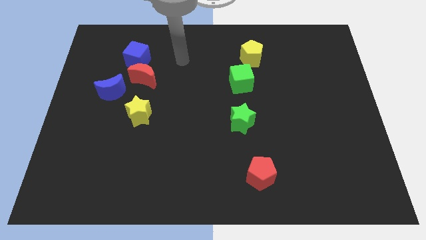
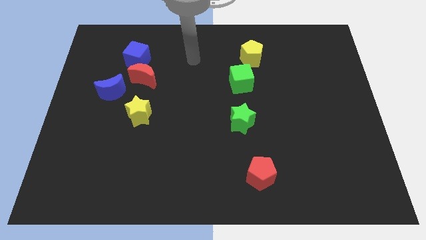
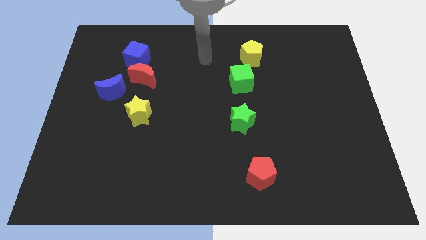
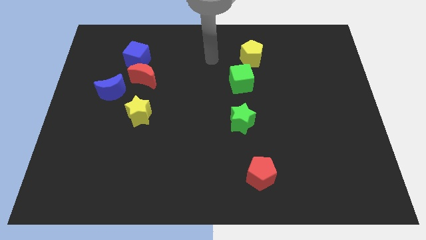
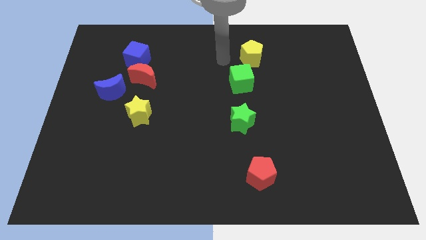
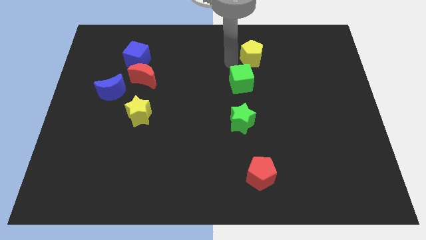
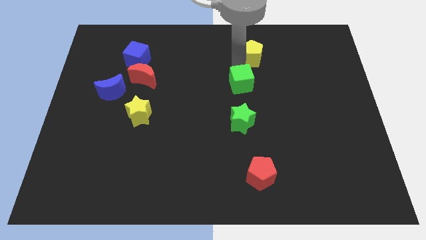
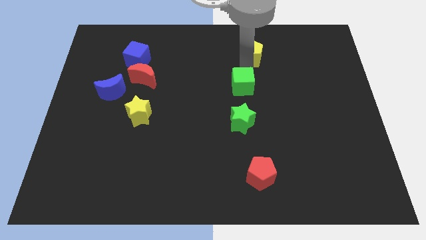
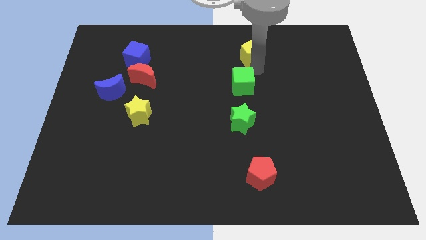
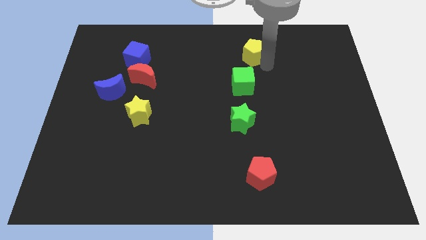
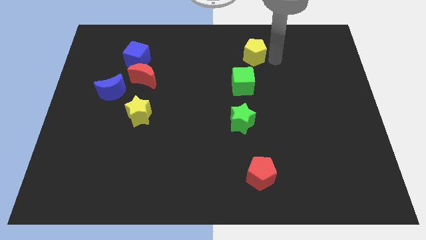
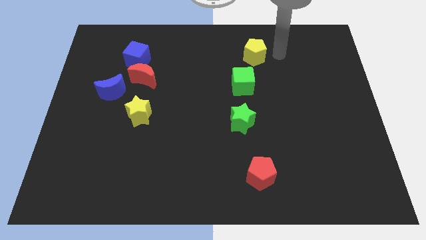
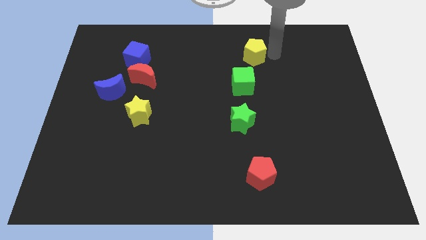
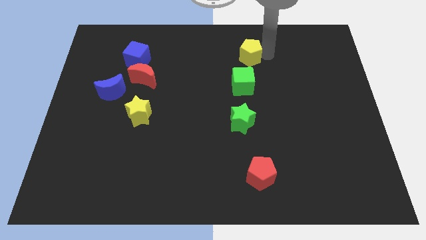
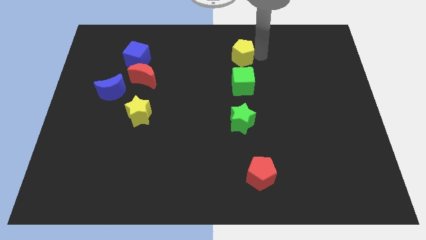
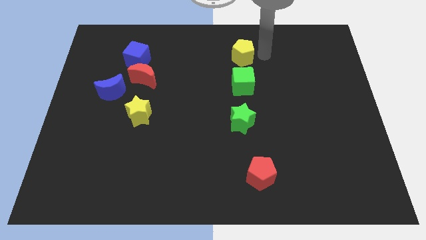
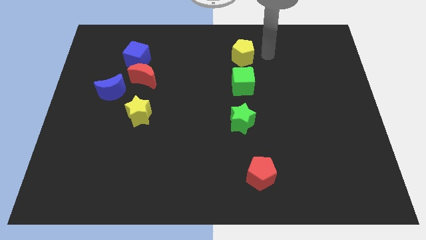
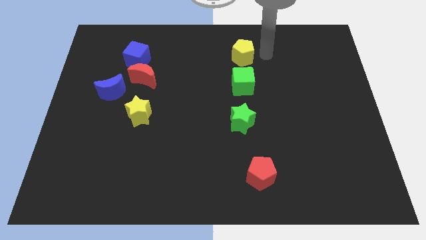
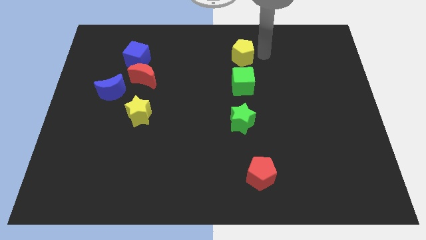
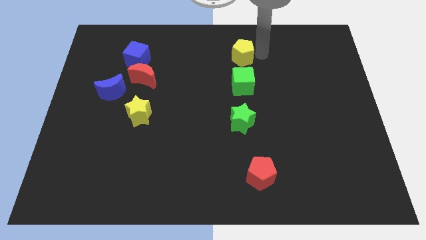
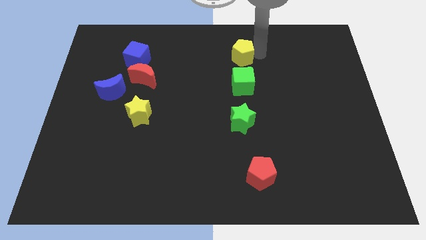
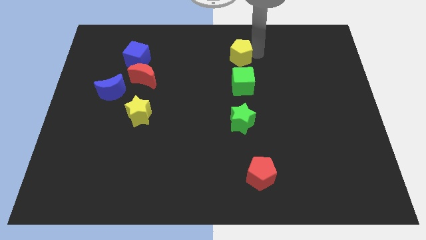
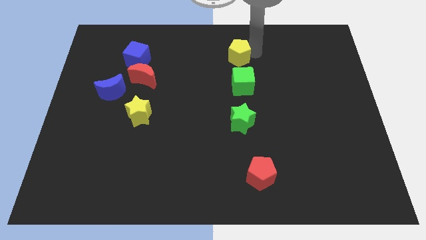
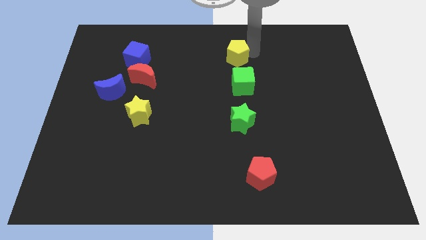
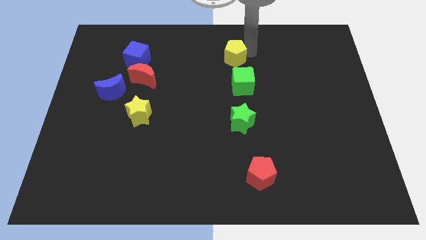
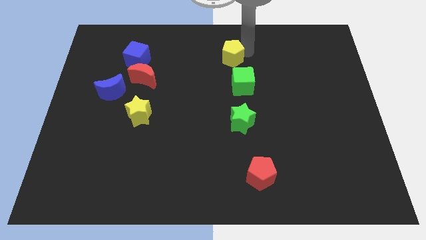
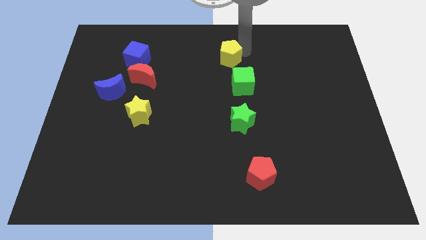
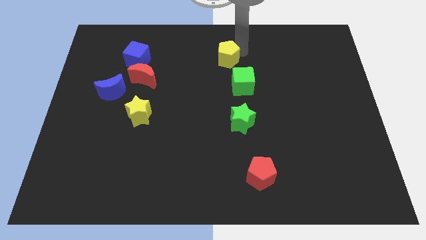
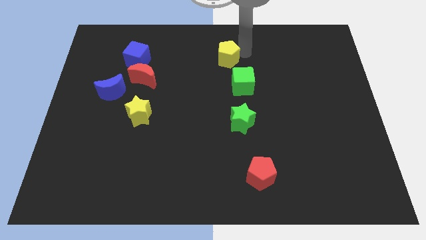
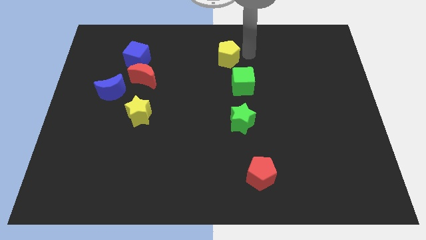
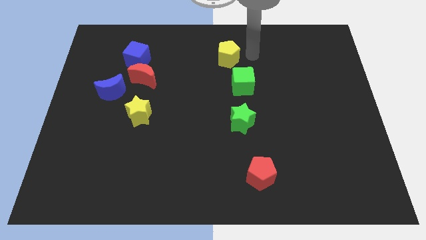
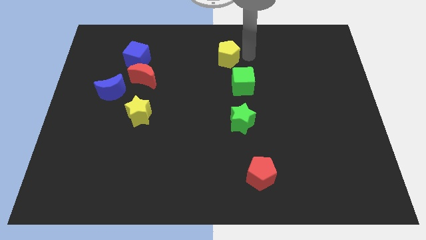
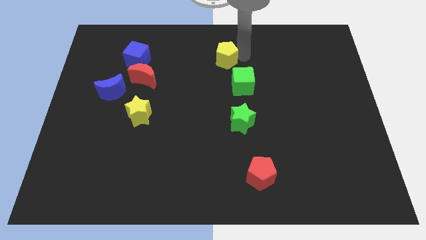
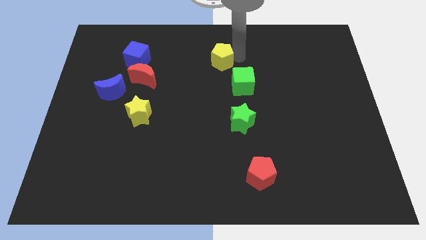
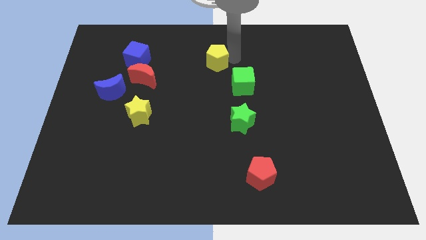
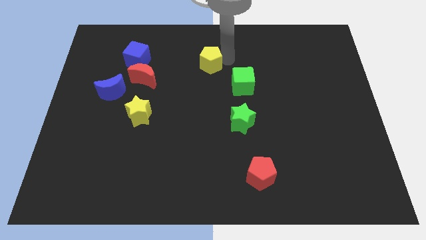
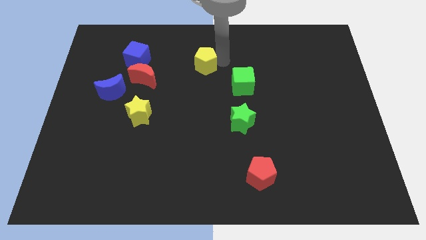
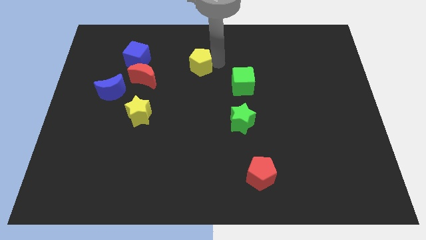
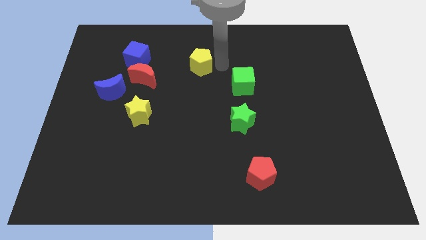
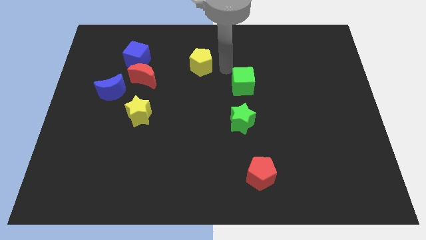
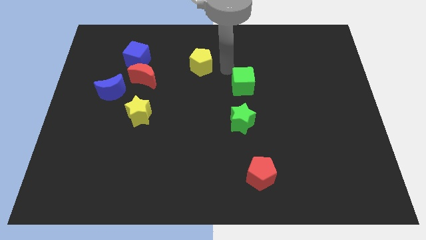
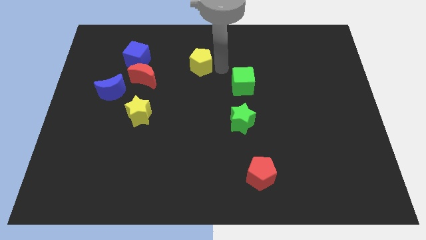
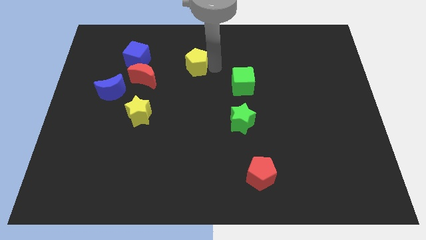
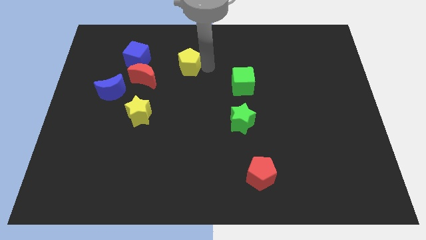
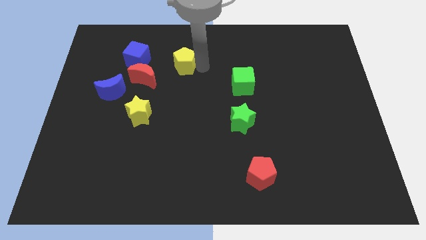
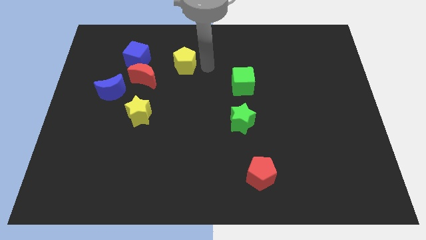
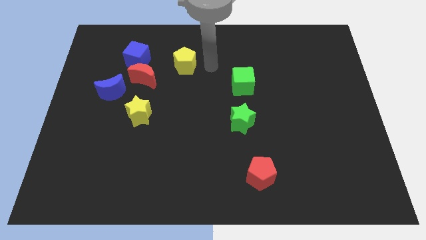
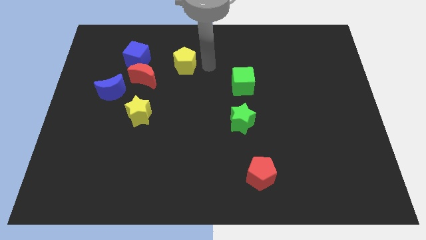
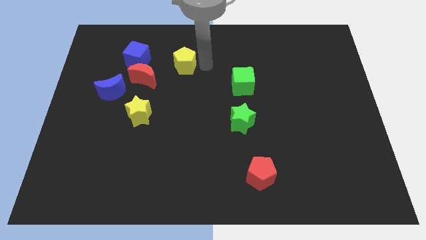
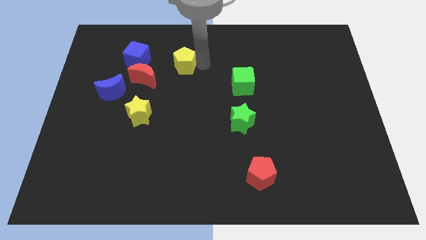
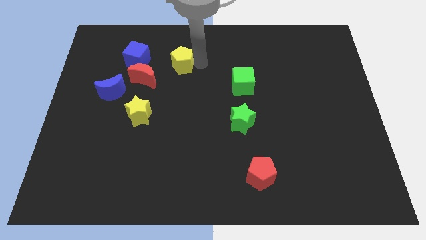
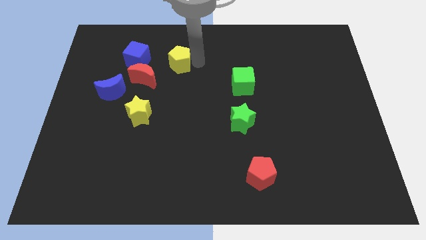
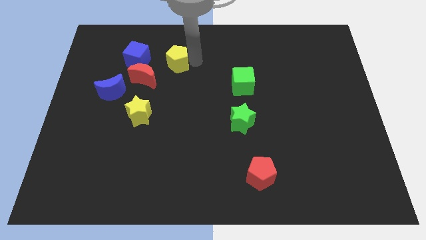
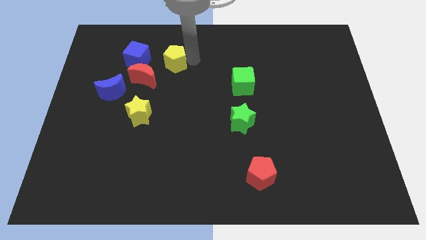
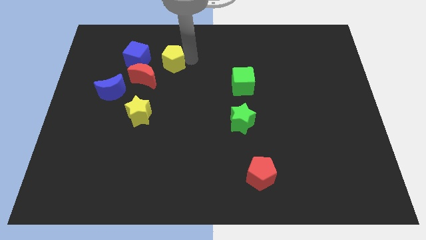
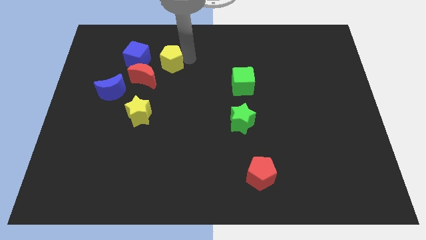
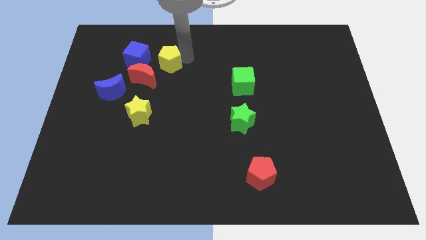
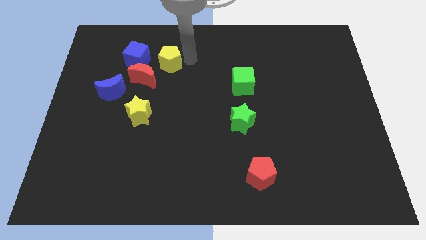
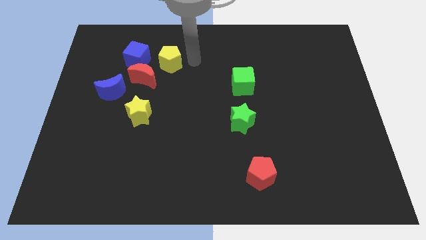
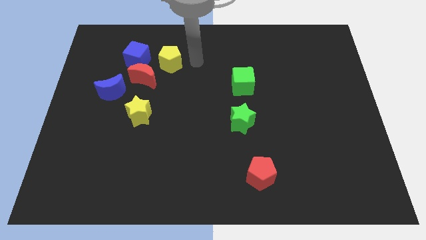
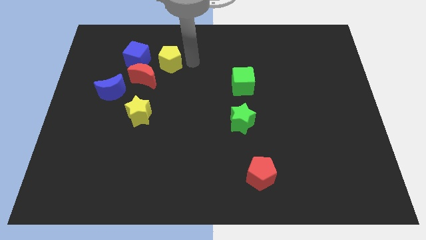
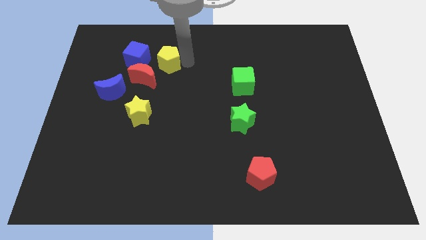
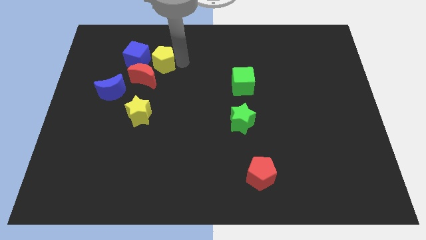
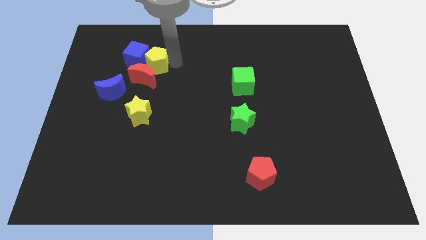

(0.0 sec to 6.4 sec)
push the yellow pentagon close to the blue cube

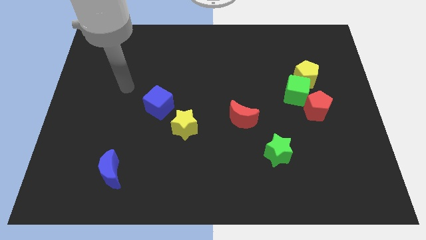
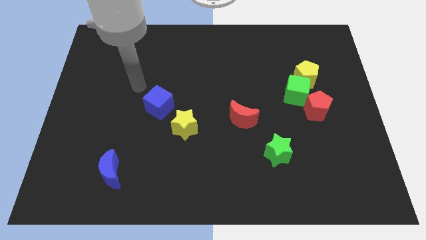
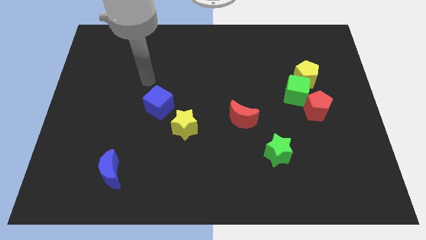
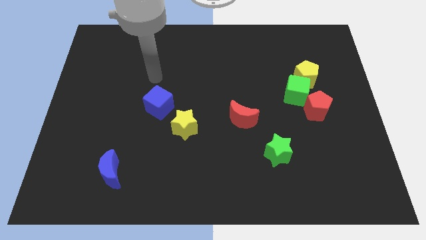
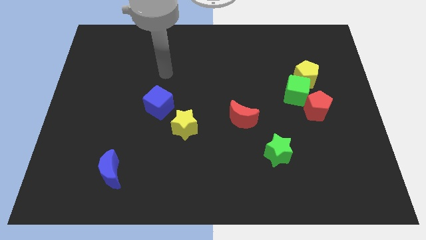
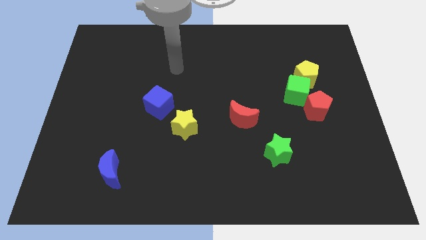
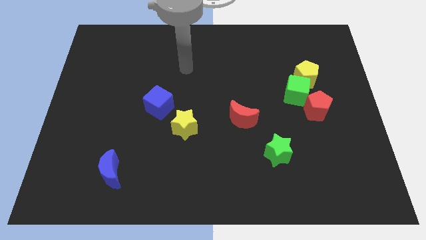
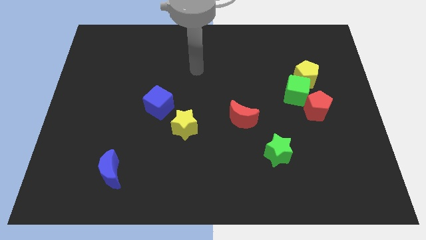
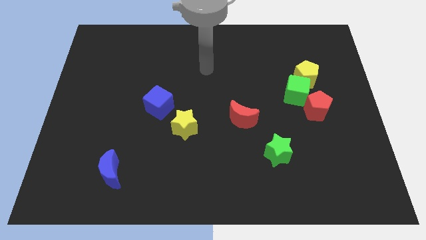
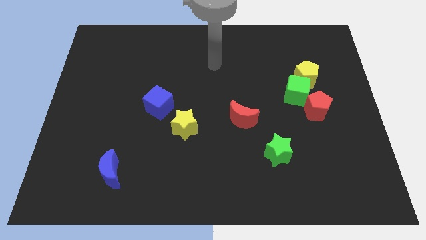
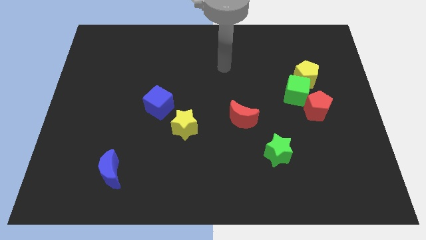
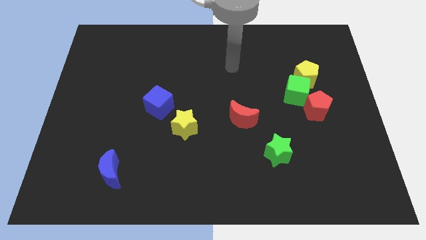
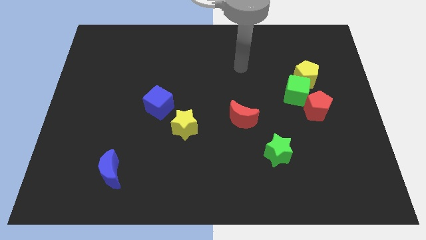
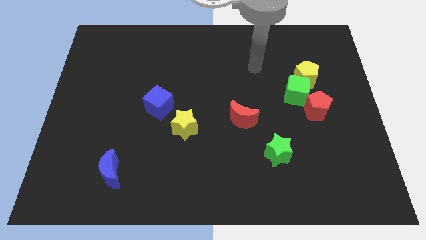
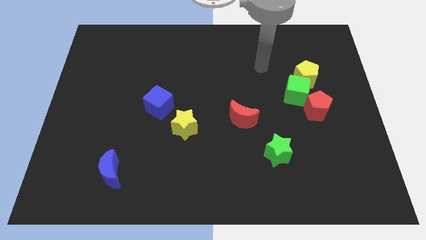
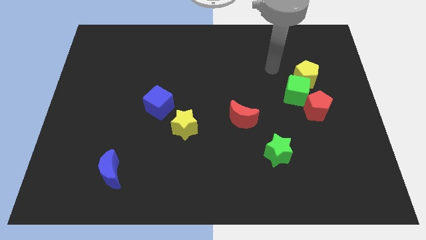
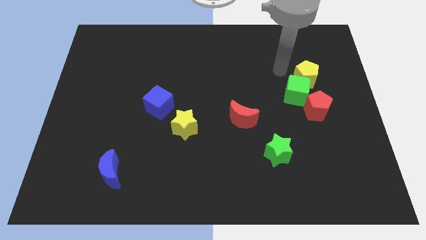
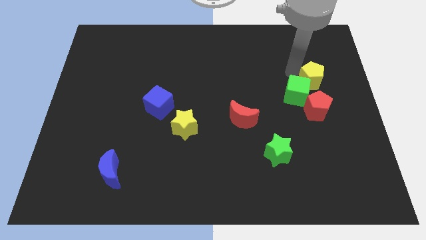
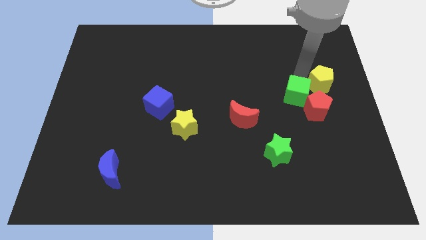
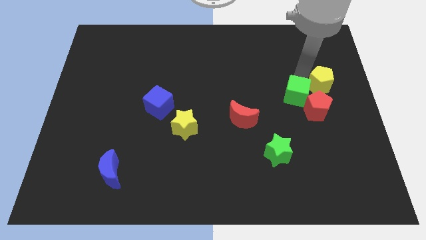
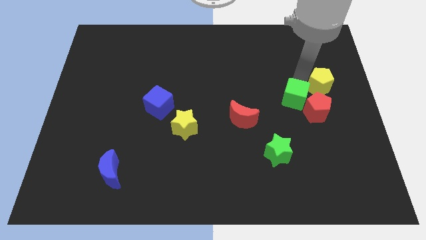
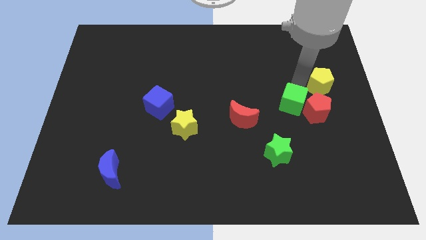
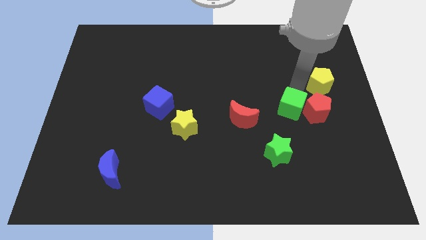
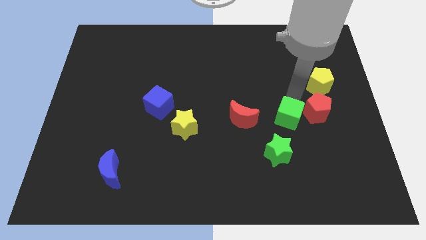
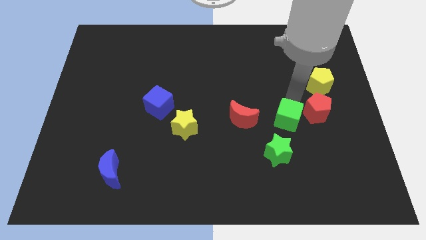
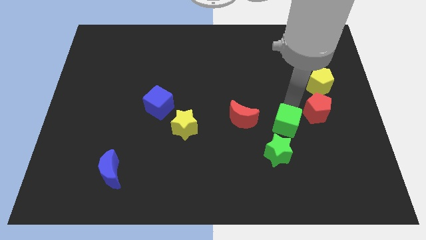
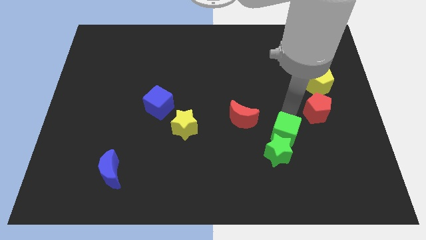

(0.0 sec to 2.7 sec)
move the green cube close to the green star
